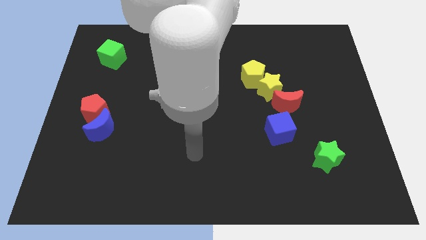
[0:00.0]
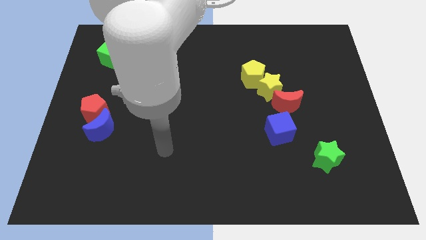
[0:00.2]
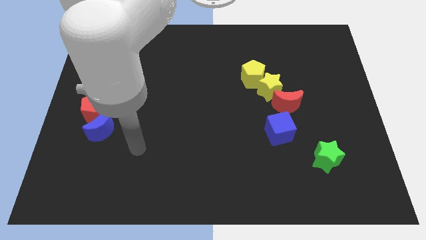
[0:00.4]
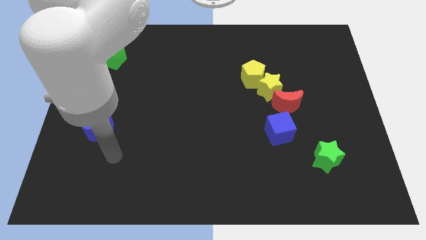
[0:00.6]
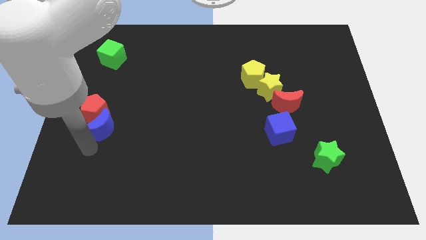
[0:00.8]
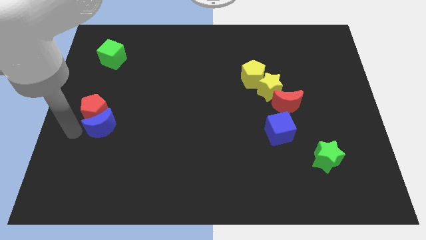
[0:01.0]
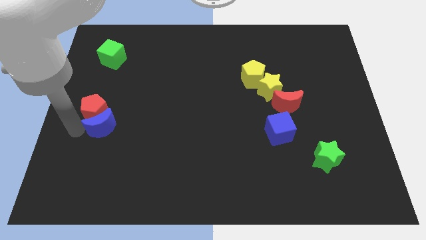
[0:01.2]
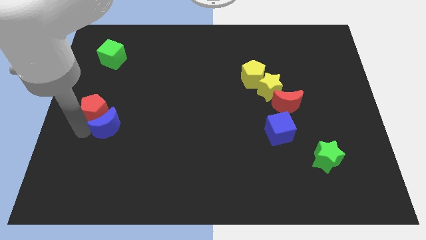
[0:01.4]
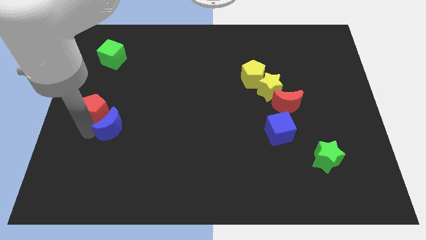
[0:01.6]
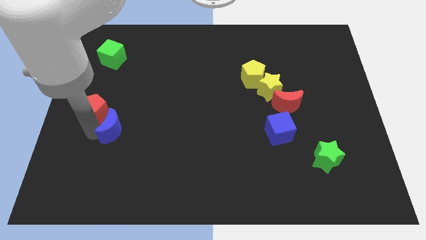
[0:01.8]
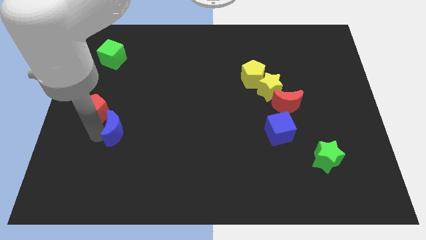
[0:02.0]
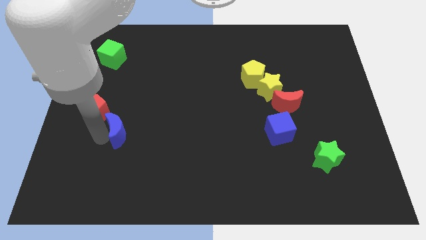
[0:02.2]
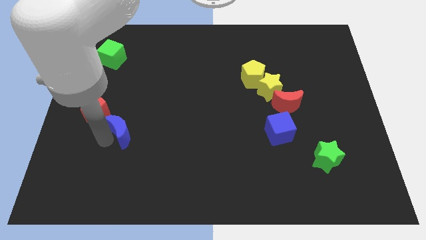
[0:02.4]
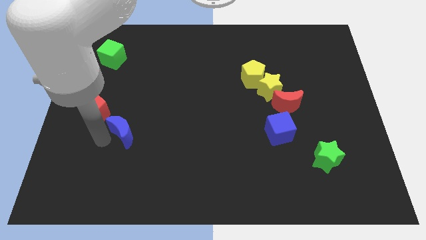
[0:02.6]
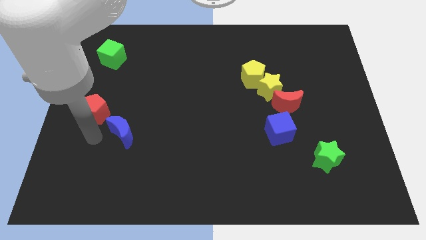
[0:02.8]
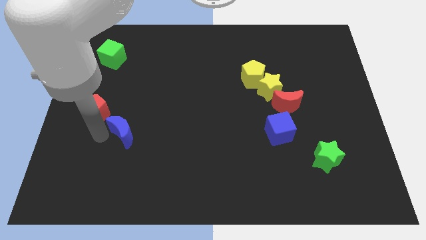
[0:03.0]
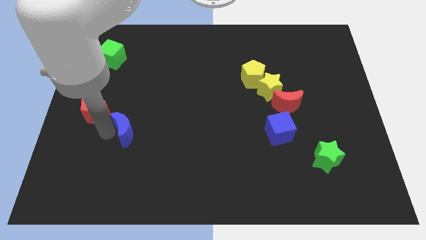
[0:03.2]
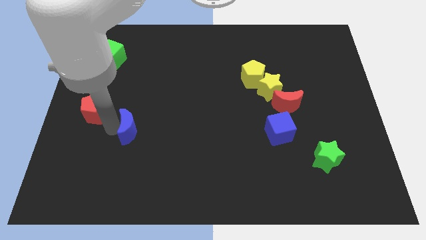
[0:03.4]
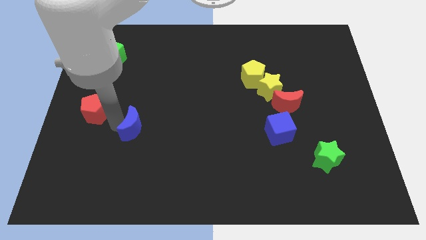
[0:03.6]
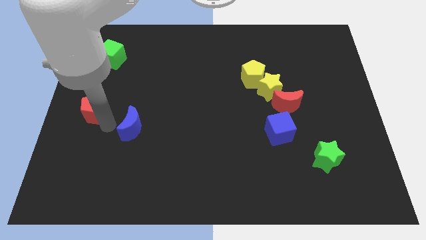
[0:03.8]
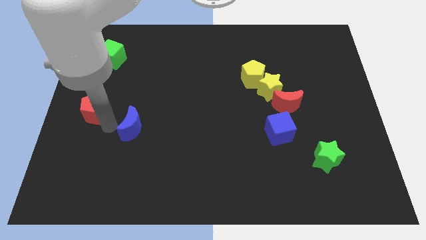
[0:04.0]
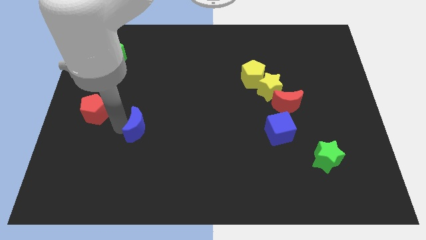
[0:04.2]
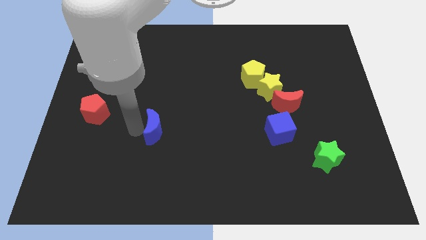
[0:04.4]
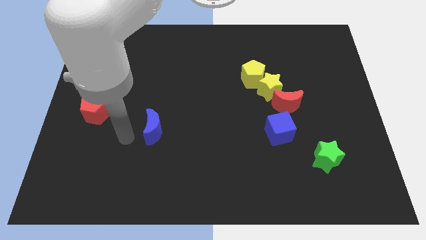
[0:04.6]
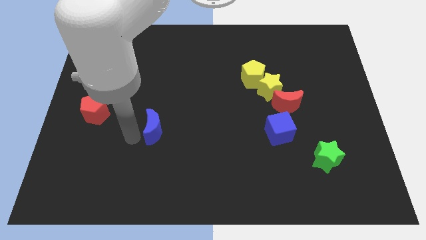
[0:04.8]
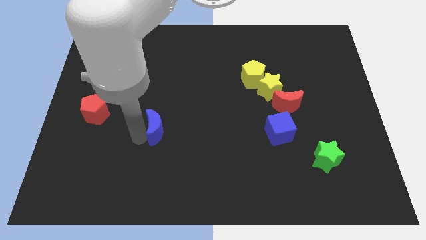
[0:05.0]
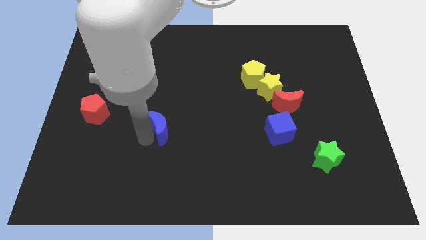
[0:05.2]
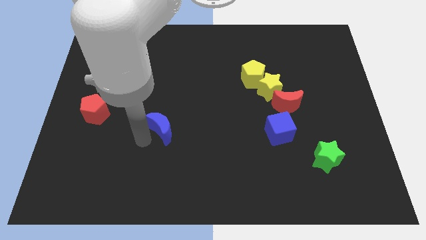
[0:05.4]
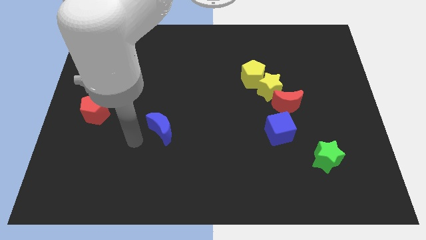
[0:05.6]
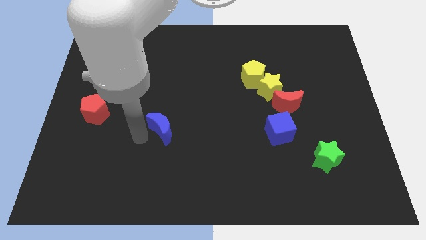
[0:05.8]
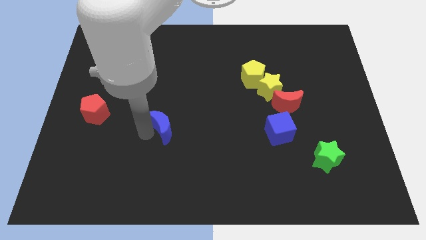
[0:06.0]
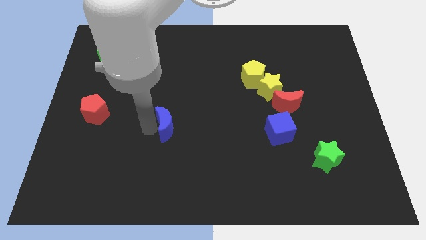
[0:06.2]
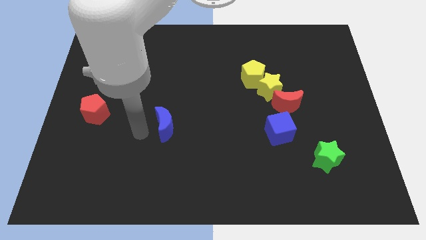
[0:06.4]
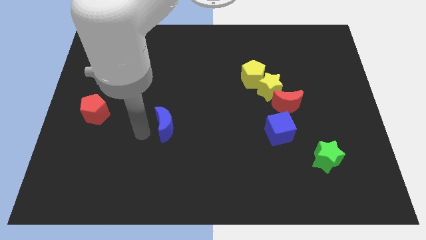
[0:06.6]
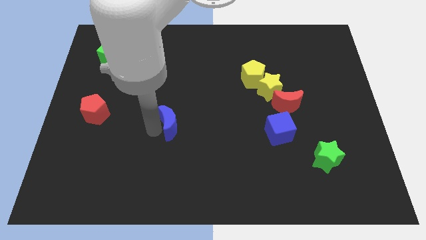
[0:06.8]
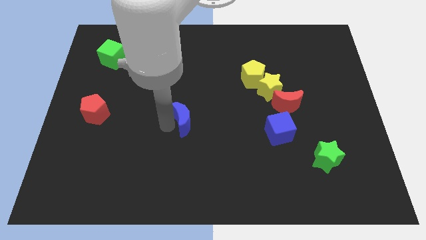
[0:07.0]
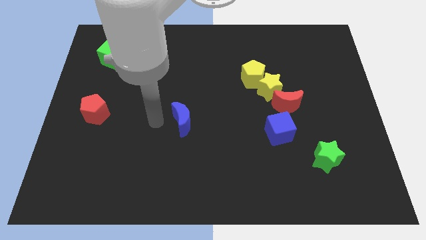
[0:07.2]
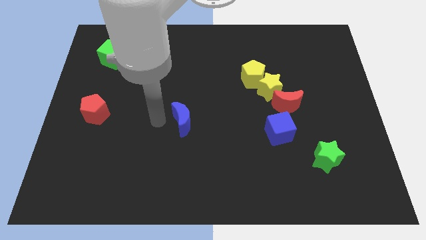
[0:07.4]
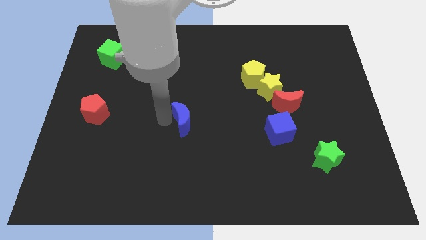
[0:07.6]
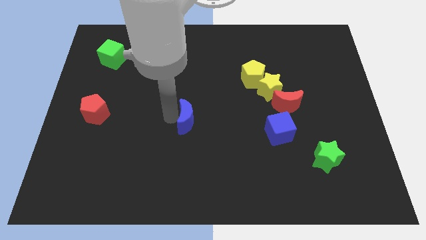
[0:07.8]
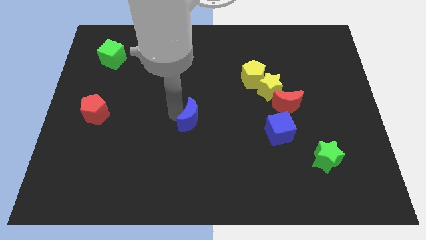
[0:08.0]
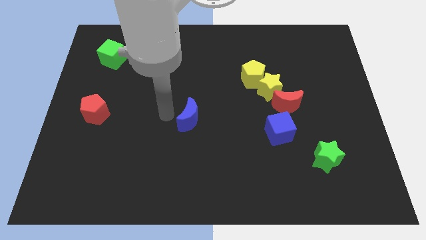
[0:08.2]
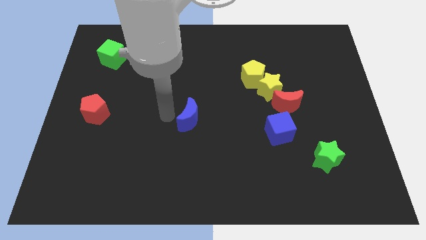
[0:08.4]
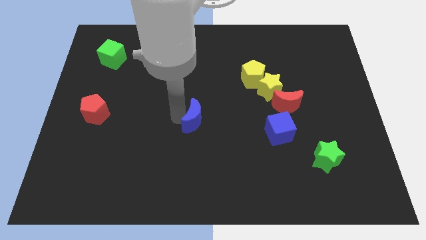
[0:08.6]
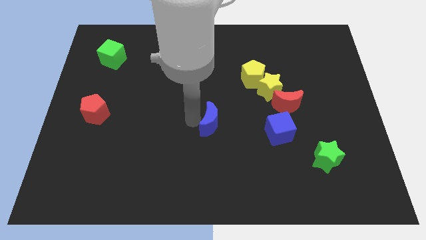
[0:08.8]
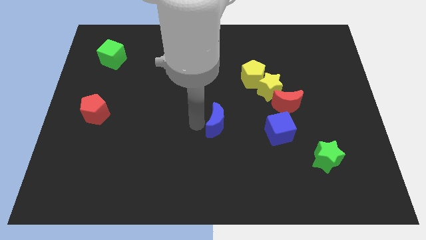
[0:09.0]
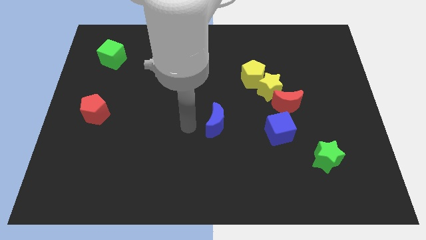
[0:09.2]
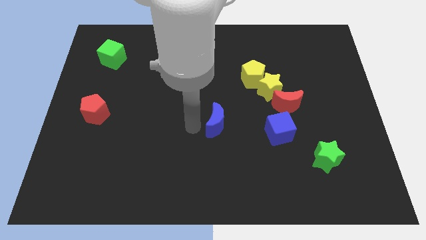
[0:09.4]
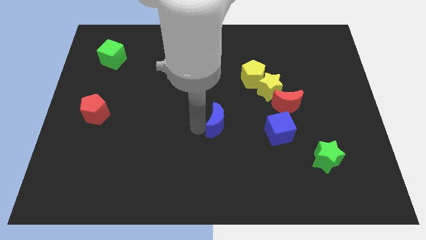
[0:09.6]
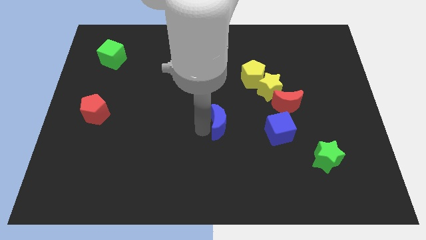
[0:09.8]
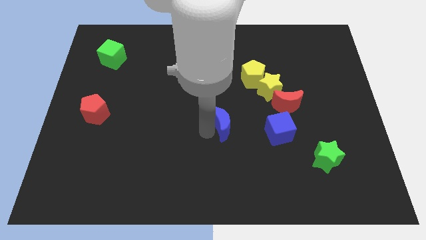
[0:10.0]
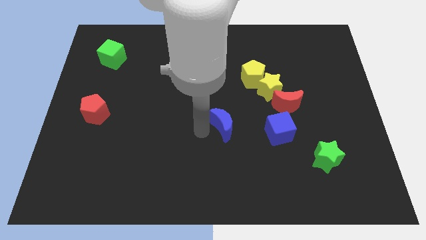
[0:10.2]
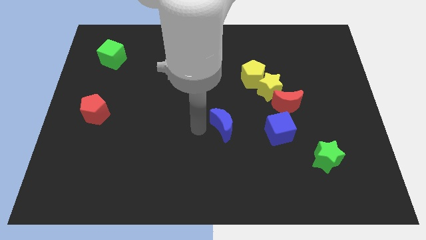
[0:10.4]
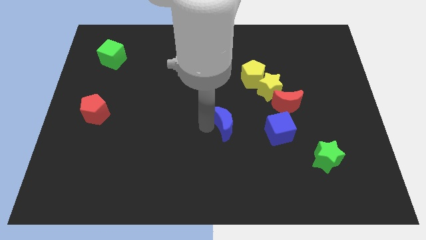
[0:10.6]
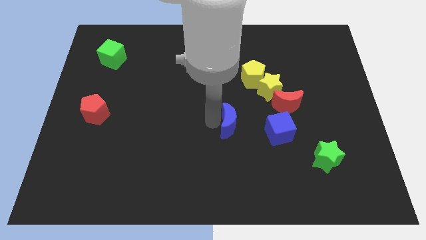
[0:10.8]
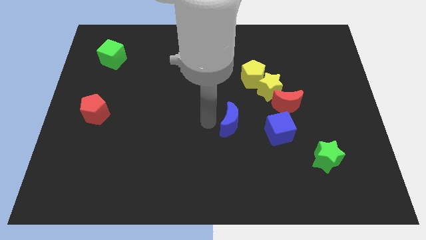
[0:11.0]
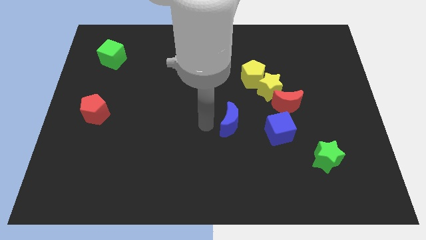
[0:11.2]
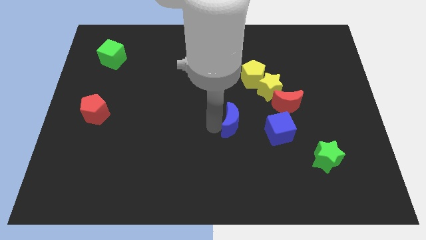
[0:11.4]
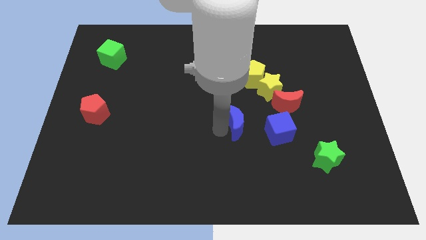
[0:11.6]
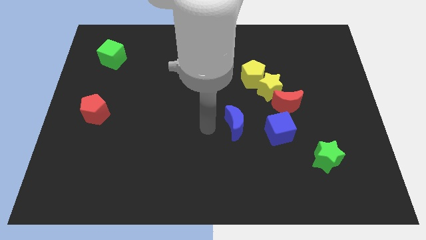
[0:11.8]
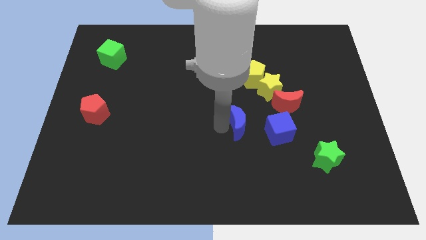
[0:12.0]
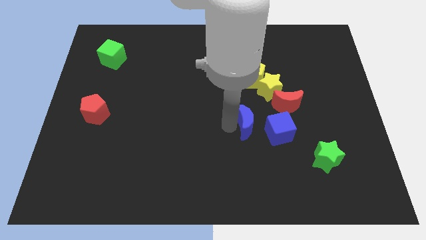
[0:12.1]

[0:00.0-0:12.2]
put the blue moon to the bottom left side of the red moon

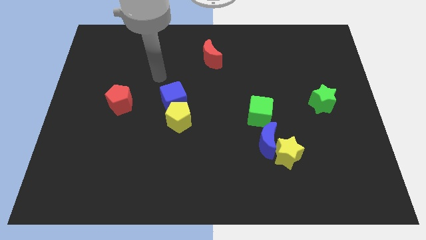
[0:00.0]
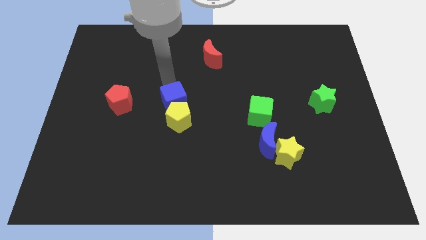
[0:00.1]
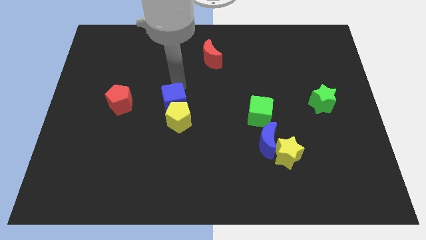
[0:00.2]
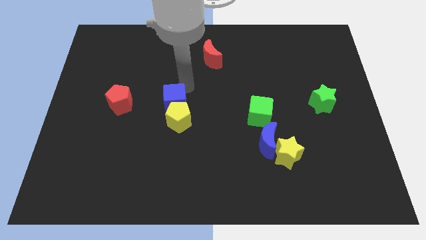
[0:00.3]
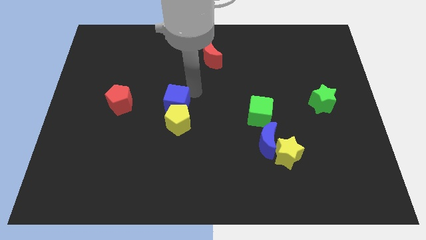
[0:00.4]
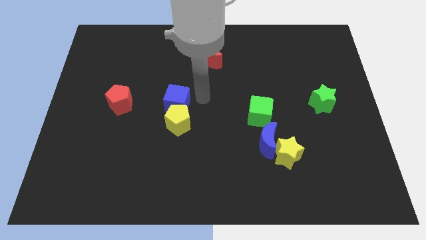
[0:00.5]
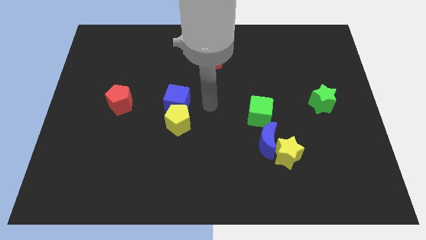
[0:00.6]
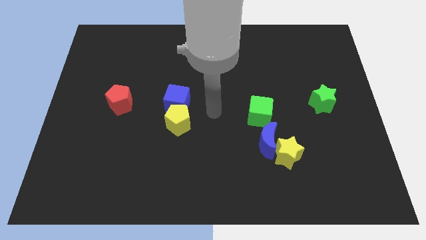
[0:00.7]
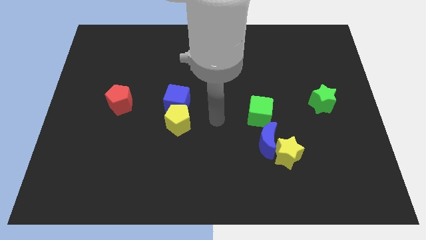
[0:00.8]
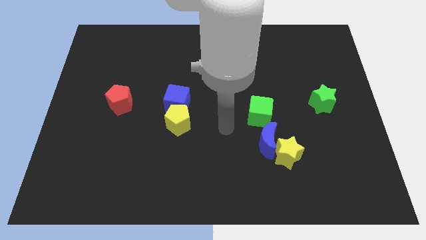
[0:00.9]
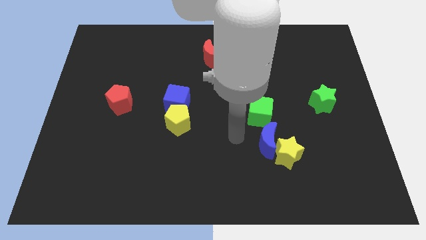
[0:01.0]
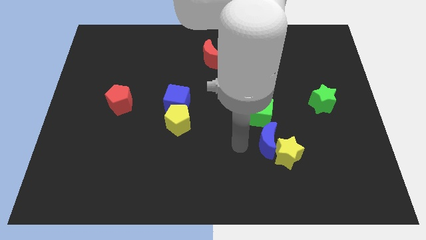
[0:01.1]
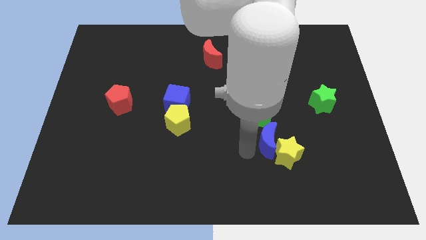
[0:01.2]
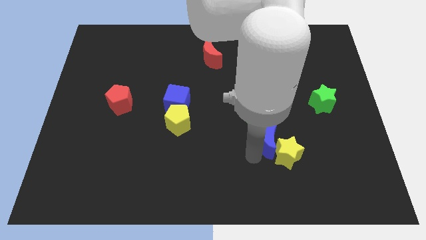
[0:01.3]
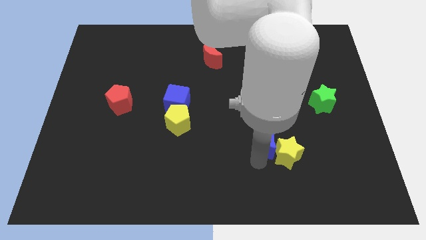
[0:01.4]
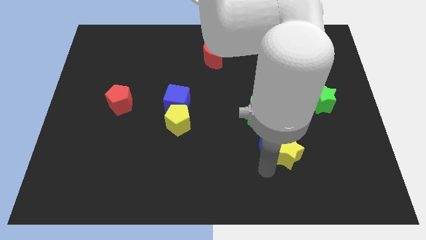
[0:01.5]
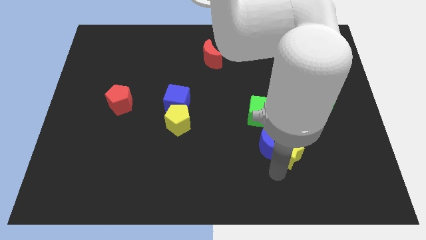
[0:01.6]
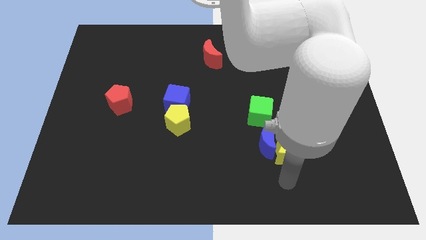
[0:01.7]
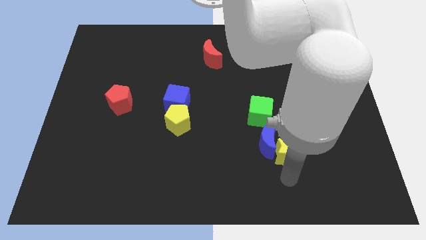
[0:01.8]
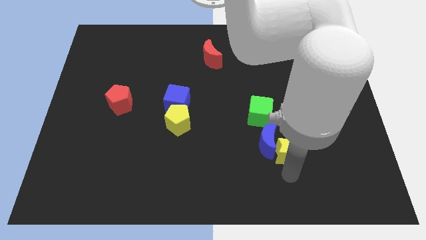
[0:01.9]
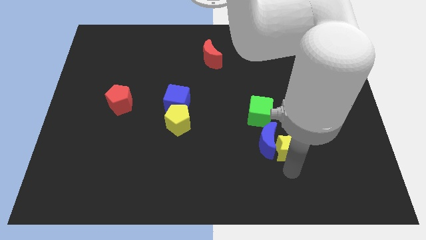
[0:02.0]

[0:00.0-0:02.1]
push the yellow star to the top right side of the blue moon
